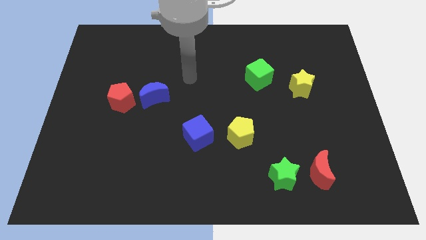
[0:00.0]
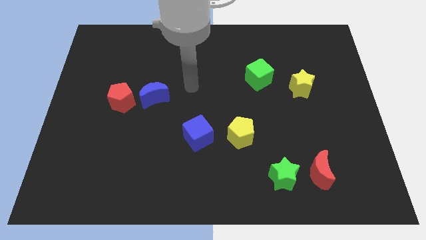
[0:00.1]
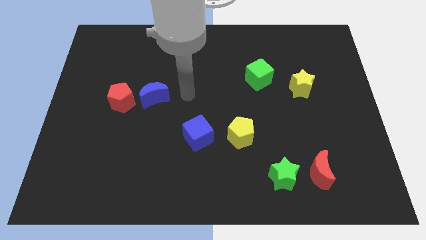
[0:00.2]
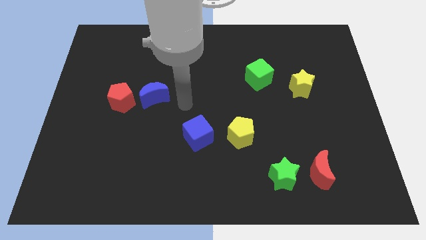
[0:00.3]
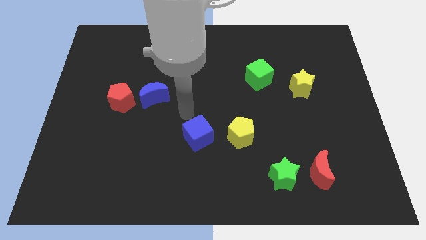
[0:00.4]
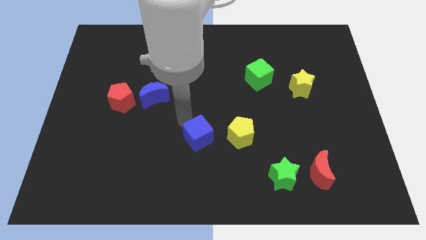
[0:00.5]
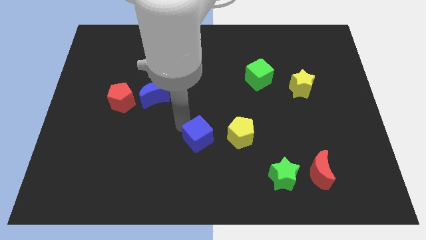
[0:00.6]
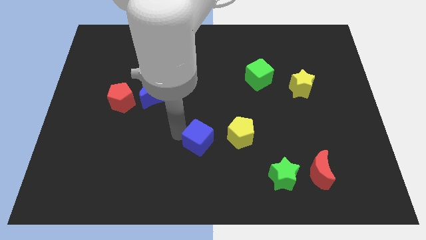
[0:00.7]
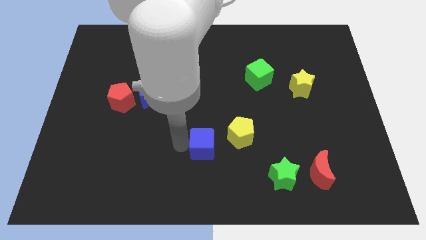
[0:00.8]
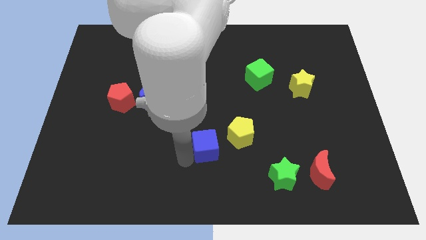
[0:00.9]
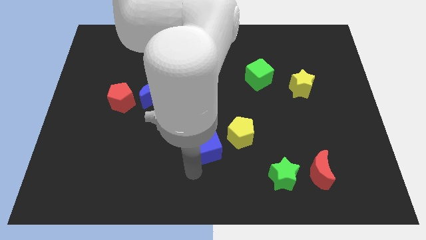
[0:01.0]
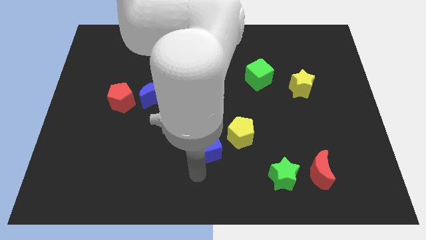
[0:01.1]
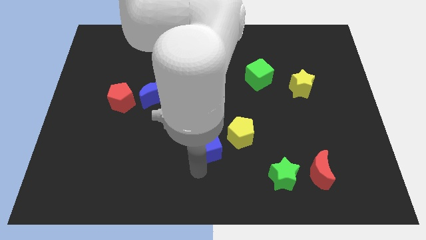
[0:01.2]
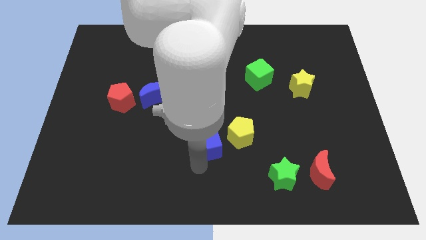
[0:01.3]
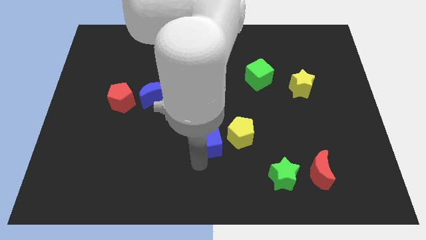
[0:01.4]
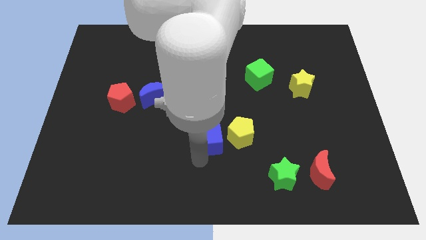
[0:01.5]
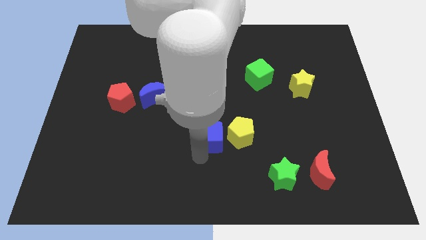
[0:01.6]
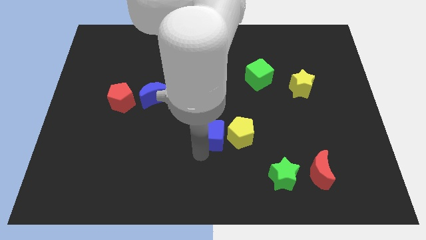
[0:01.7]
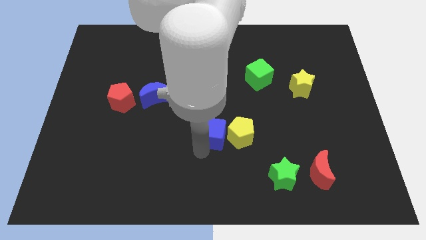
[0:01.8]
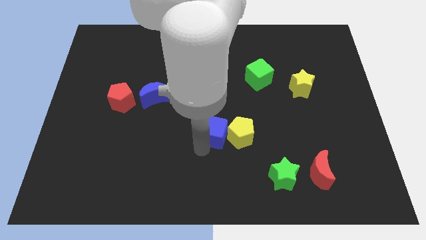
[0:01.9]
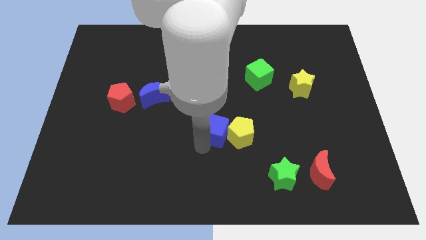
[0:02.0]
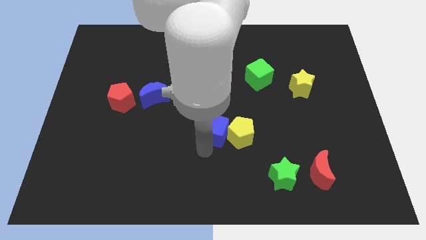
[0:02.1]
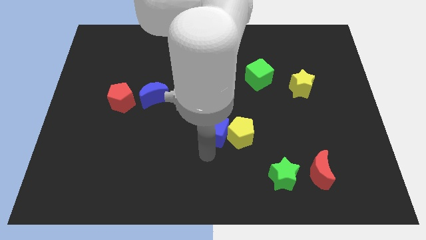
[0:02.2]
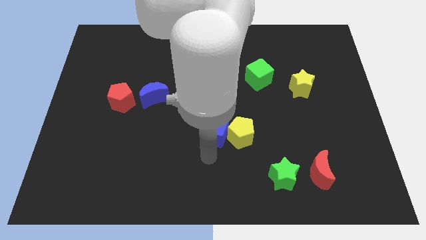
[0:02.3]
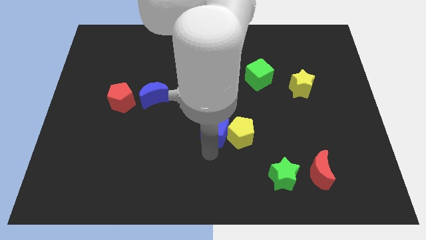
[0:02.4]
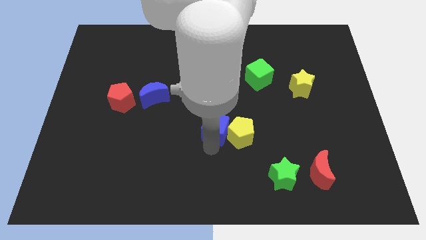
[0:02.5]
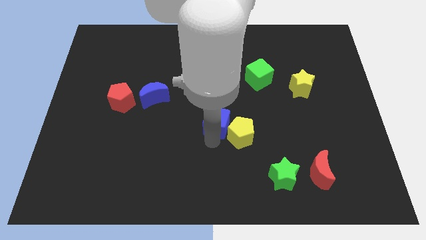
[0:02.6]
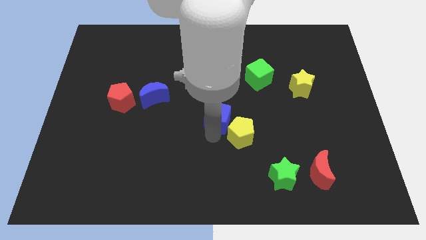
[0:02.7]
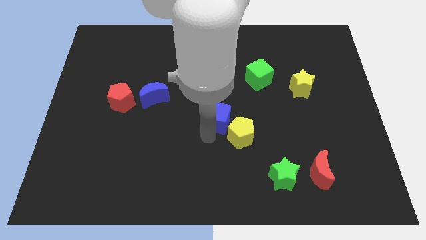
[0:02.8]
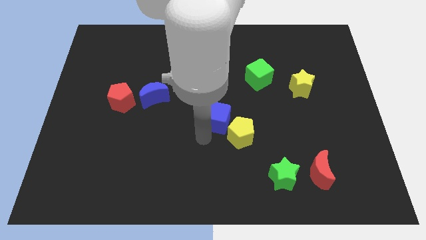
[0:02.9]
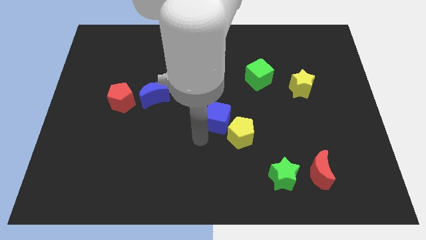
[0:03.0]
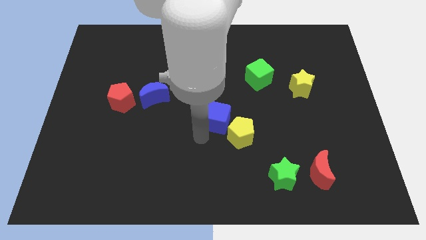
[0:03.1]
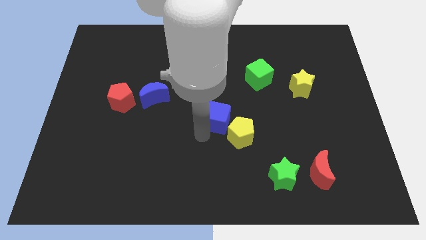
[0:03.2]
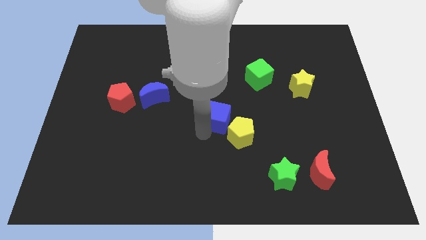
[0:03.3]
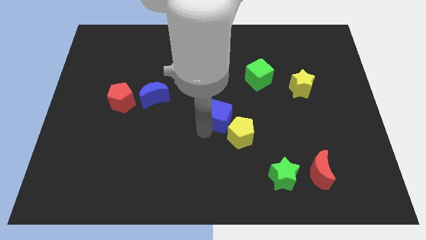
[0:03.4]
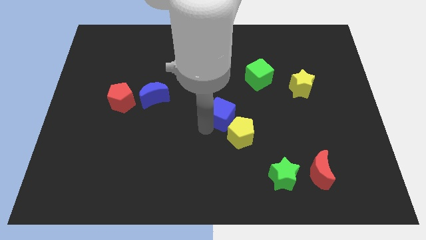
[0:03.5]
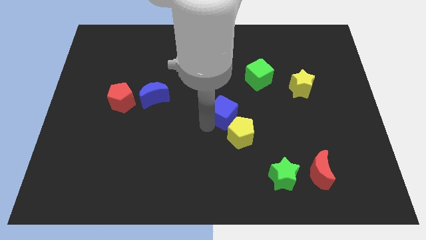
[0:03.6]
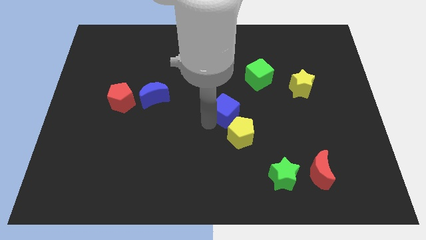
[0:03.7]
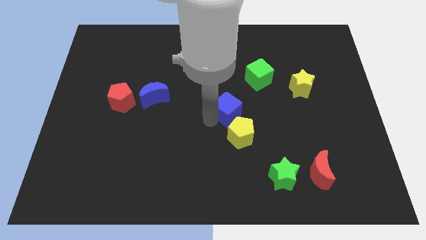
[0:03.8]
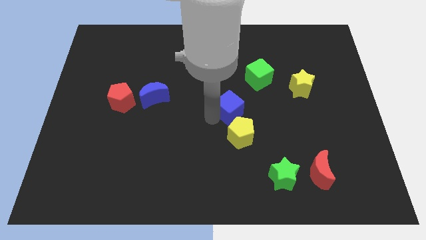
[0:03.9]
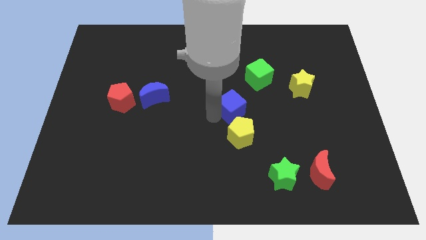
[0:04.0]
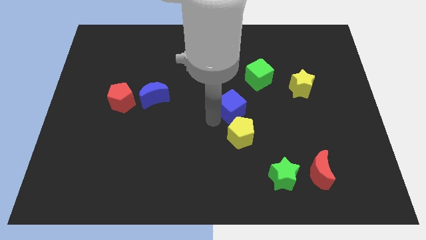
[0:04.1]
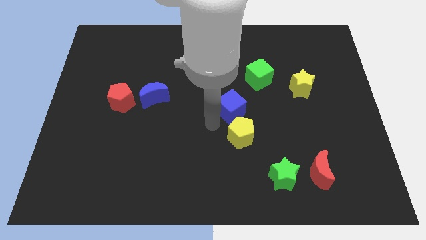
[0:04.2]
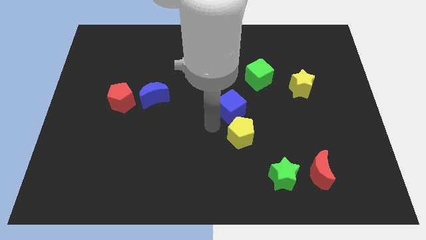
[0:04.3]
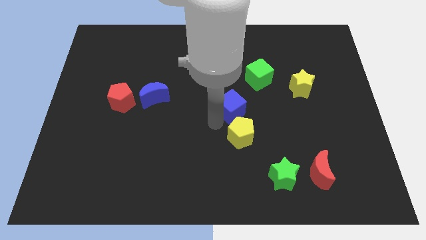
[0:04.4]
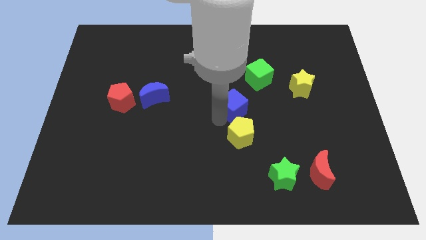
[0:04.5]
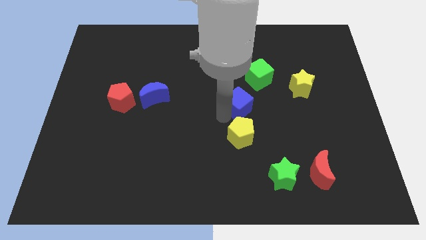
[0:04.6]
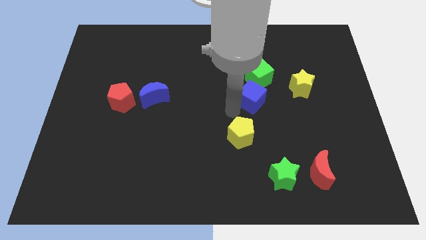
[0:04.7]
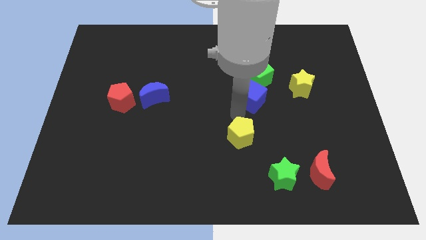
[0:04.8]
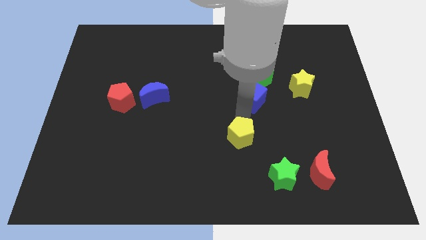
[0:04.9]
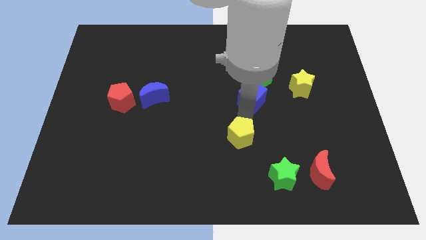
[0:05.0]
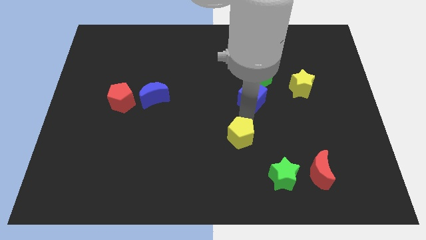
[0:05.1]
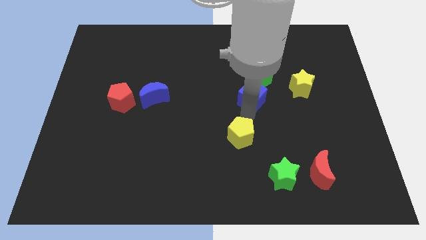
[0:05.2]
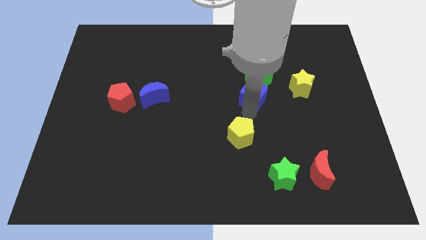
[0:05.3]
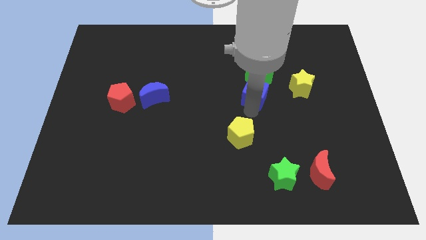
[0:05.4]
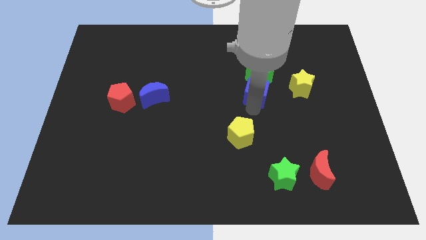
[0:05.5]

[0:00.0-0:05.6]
push the blue cube next to the green cube

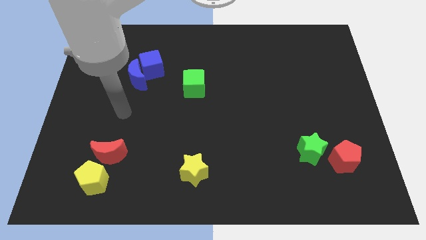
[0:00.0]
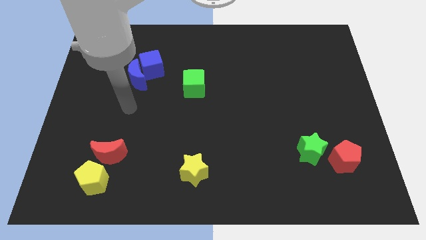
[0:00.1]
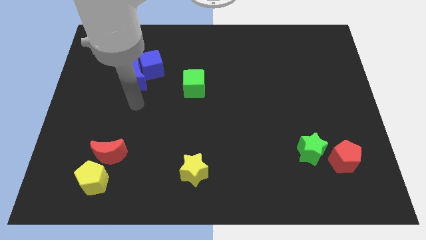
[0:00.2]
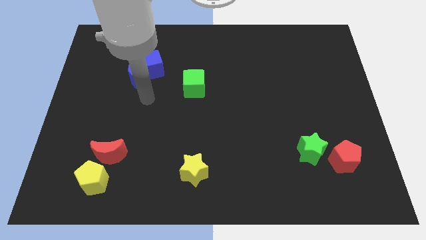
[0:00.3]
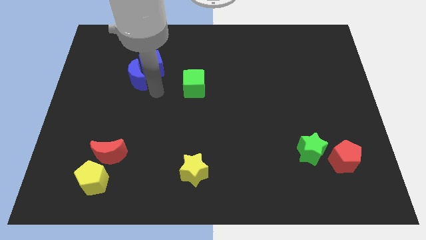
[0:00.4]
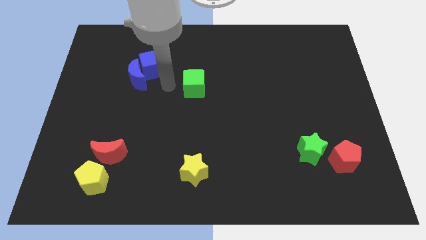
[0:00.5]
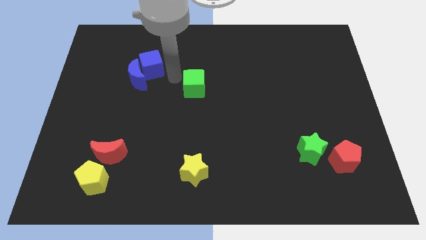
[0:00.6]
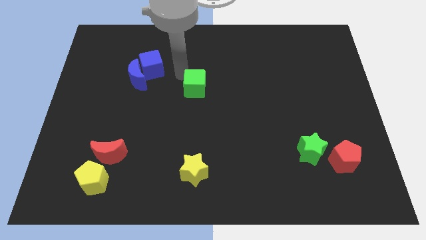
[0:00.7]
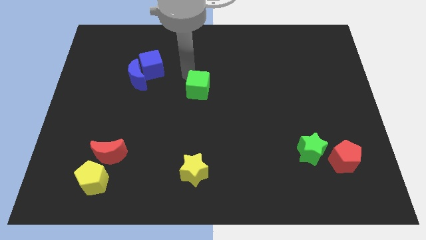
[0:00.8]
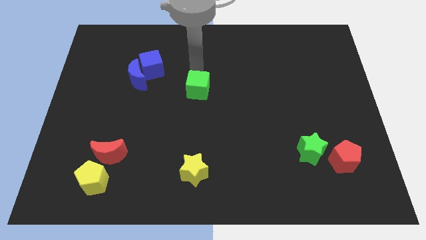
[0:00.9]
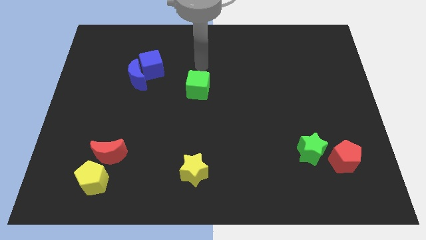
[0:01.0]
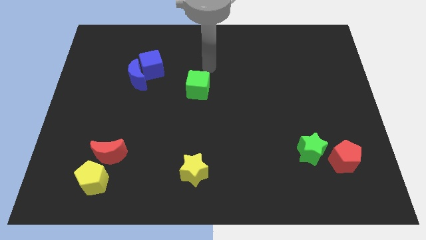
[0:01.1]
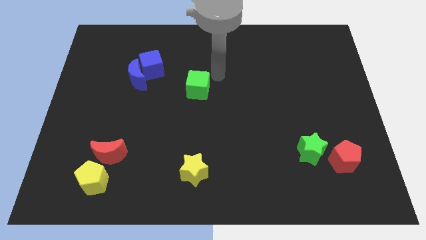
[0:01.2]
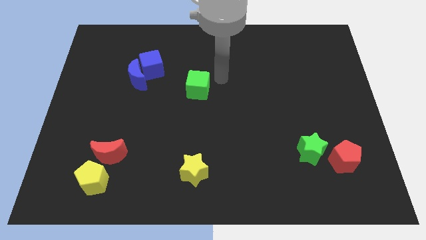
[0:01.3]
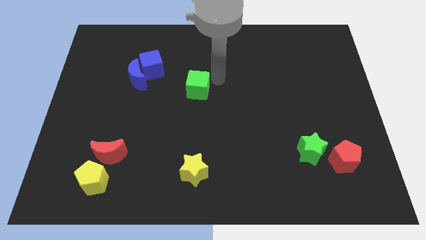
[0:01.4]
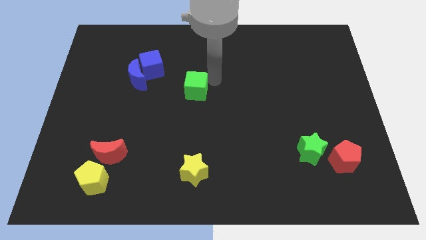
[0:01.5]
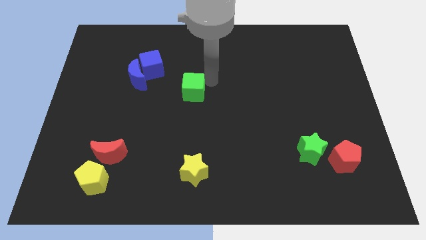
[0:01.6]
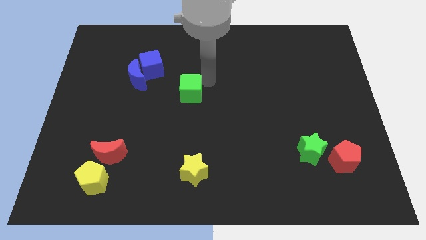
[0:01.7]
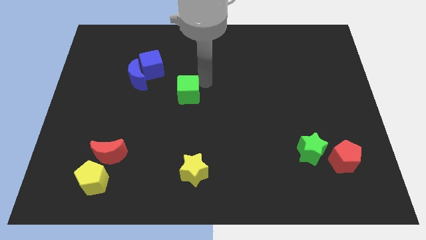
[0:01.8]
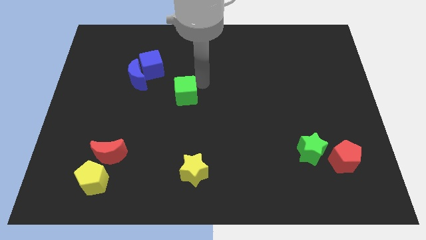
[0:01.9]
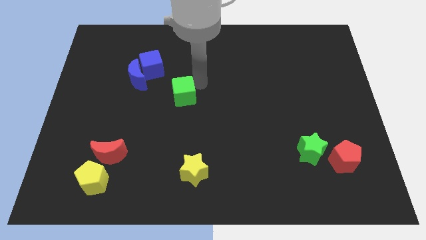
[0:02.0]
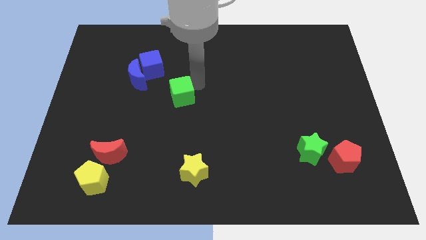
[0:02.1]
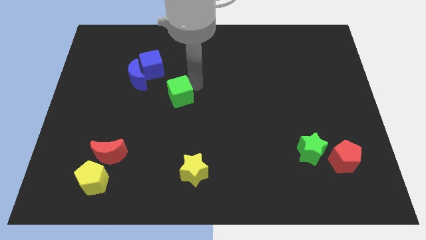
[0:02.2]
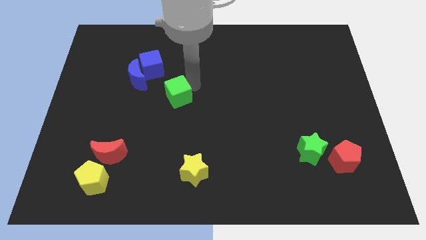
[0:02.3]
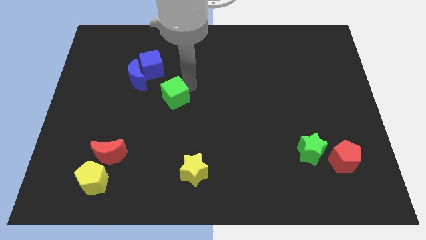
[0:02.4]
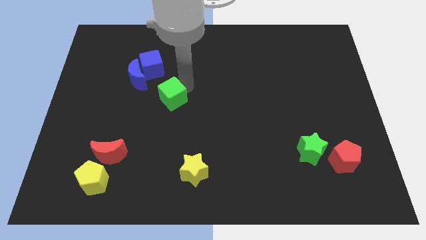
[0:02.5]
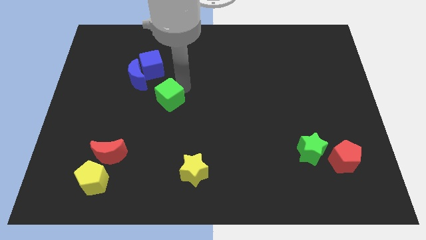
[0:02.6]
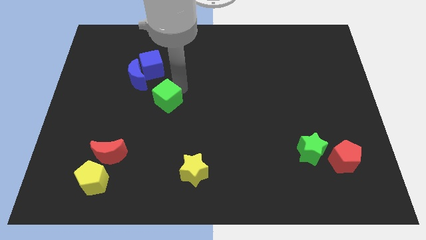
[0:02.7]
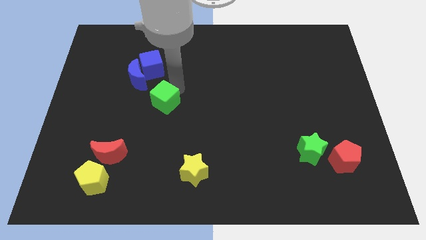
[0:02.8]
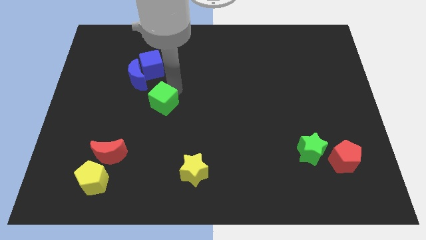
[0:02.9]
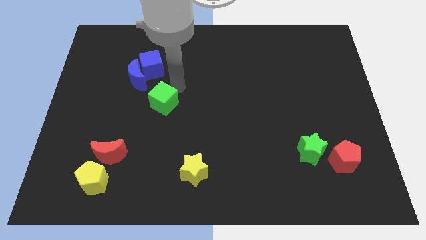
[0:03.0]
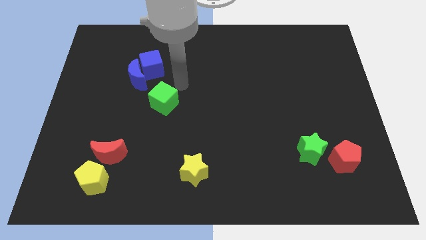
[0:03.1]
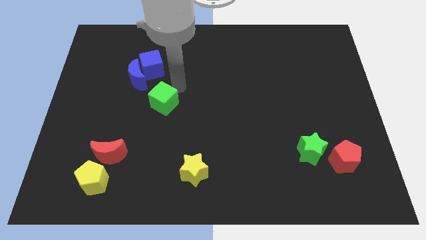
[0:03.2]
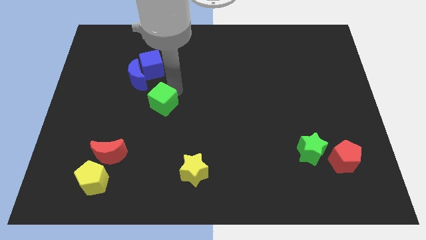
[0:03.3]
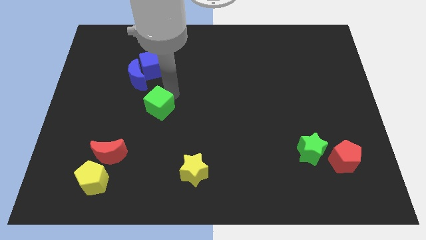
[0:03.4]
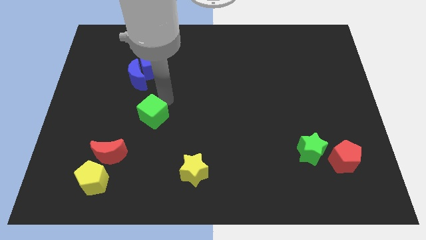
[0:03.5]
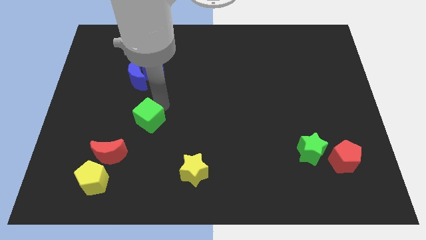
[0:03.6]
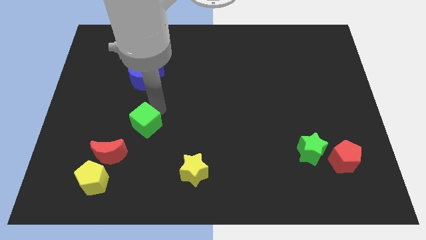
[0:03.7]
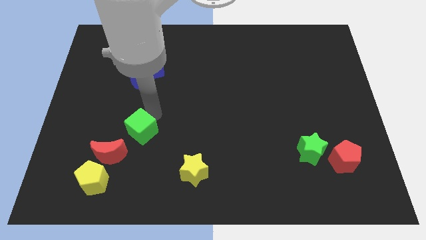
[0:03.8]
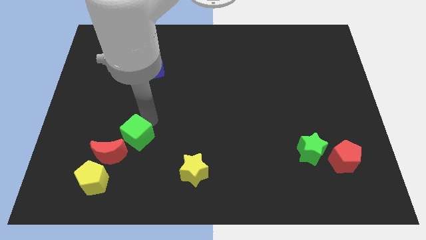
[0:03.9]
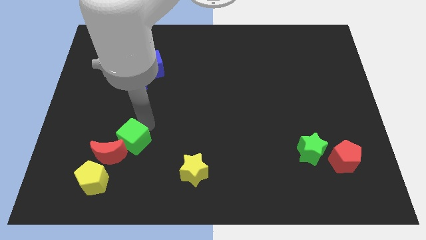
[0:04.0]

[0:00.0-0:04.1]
put the green cube close to the red moon
